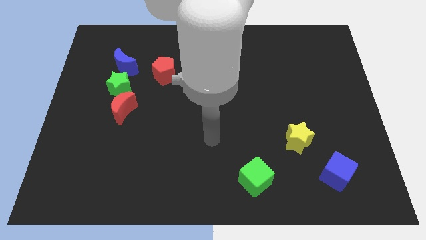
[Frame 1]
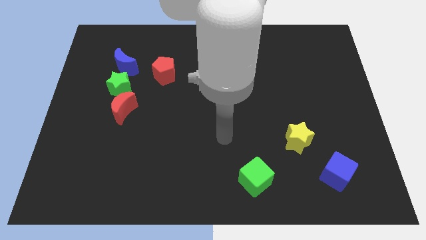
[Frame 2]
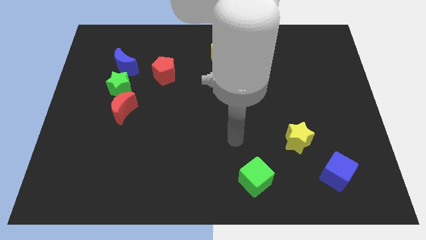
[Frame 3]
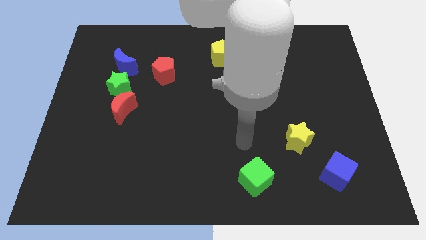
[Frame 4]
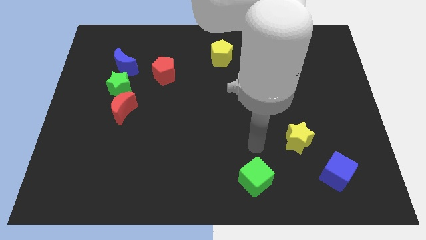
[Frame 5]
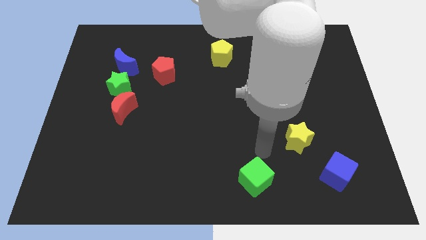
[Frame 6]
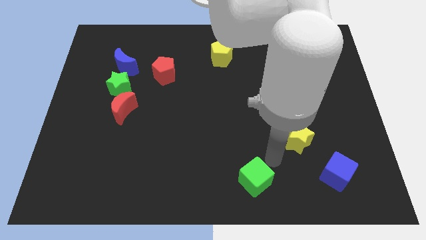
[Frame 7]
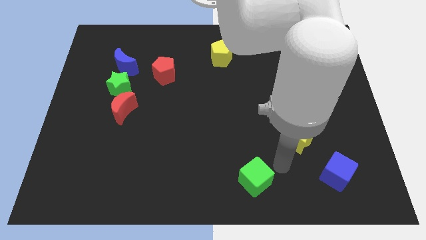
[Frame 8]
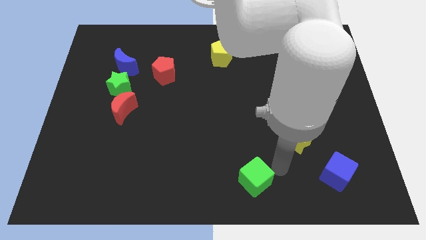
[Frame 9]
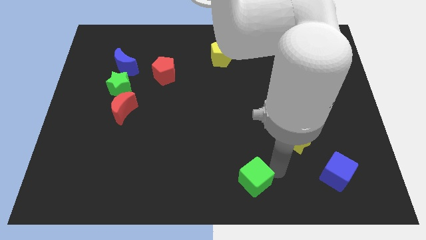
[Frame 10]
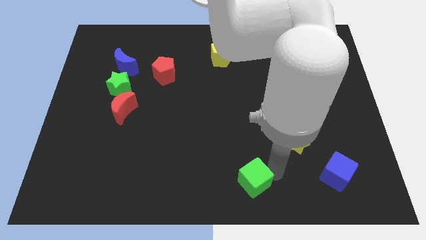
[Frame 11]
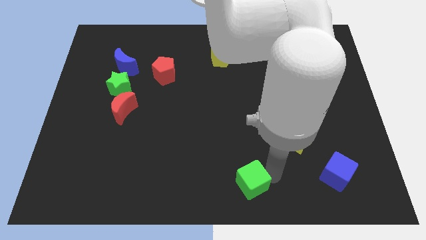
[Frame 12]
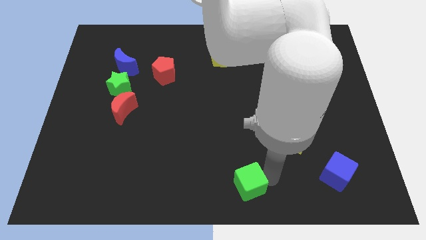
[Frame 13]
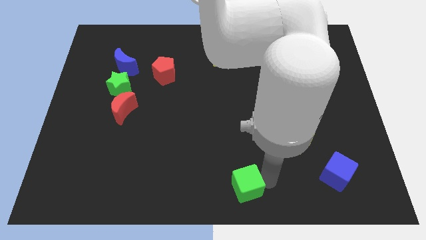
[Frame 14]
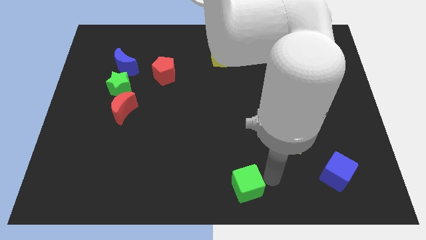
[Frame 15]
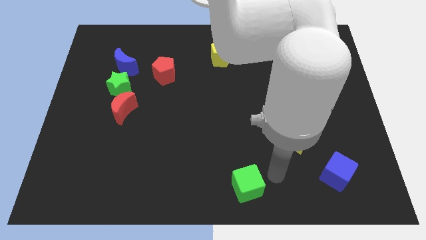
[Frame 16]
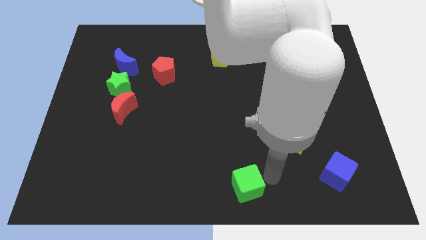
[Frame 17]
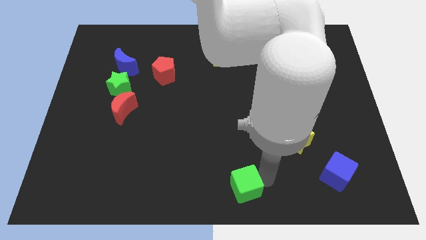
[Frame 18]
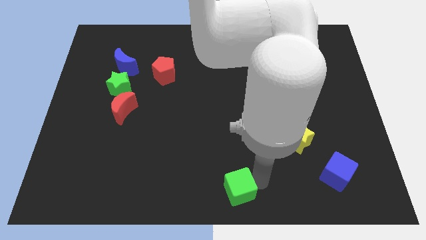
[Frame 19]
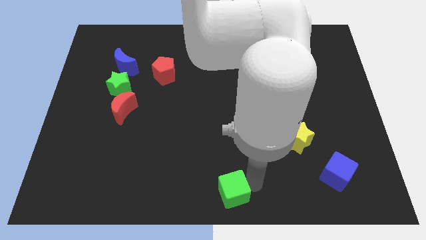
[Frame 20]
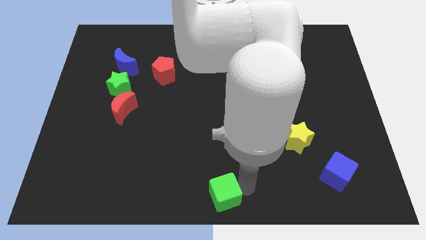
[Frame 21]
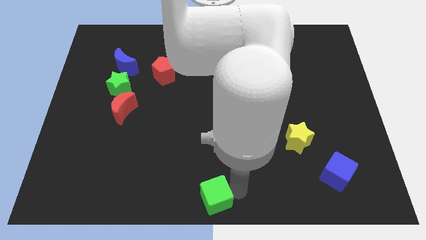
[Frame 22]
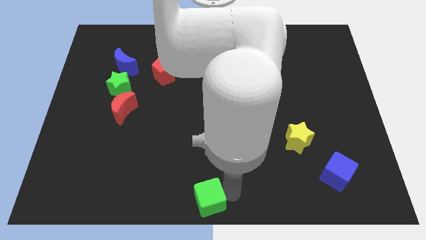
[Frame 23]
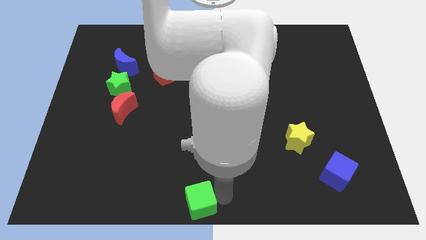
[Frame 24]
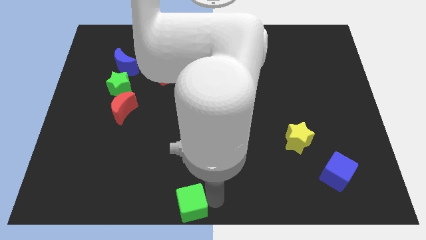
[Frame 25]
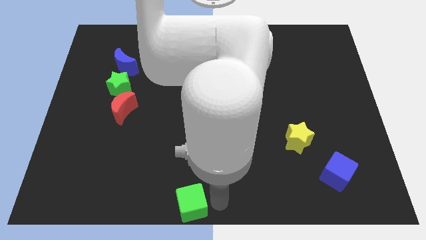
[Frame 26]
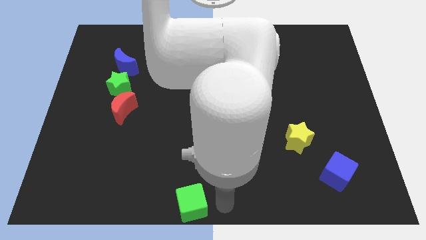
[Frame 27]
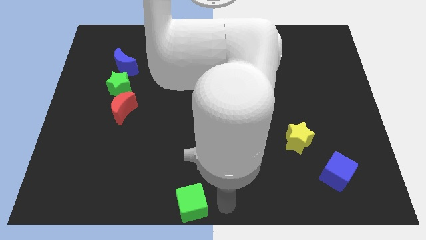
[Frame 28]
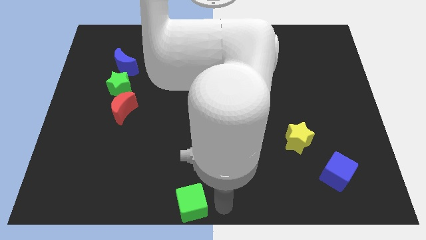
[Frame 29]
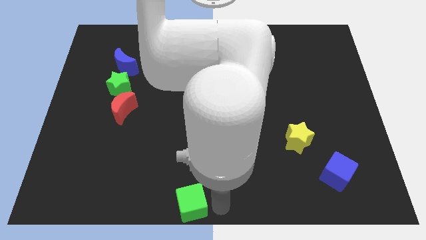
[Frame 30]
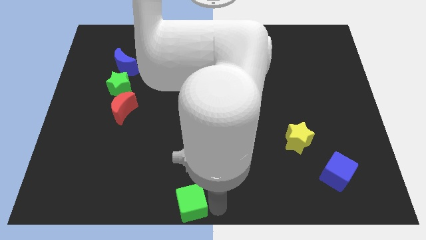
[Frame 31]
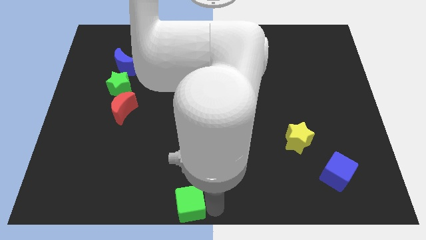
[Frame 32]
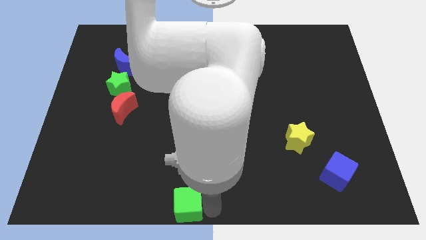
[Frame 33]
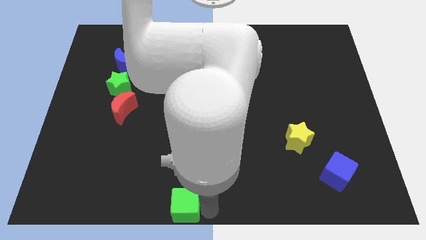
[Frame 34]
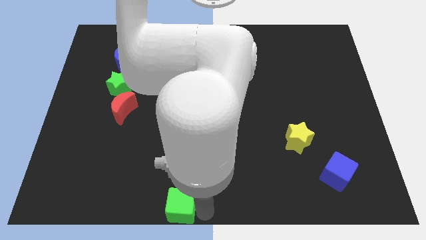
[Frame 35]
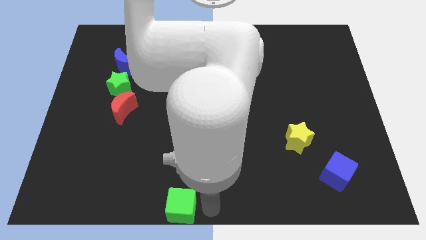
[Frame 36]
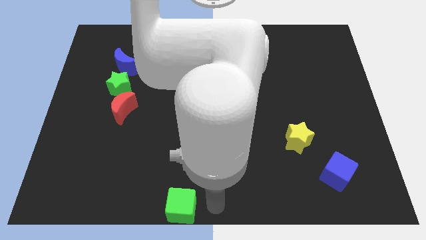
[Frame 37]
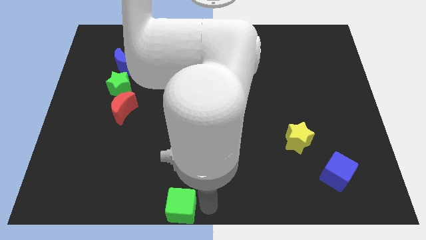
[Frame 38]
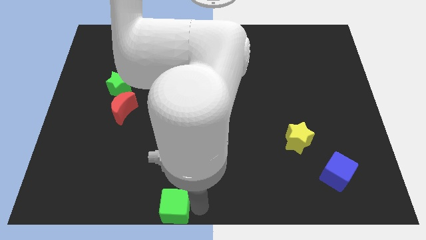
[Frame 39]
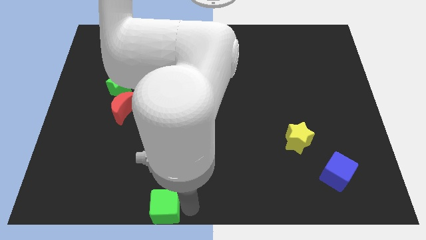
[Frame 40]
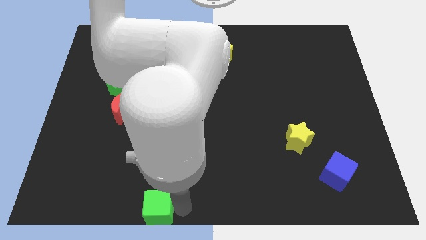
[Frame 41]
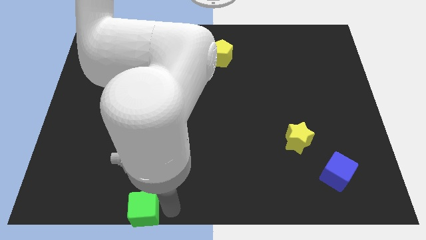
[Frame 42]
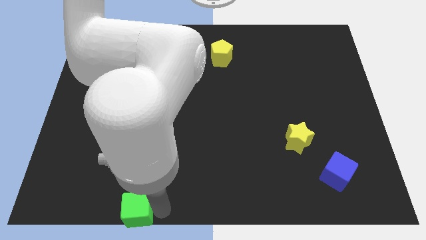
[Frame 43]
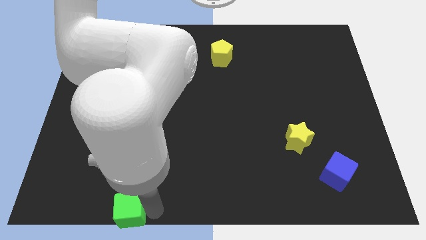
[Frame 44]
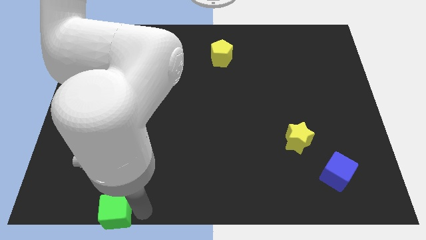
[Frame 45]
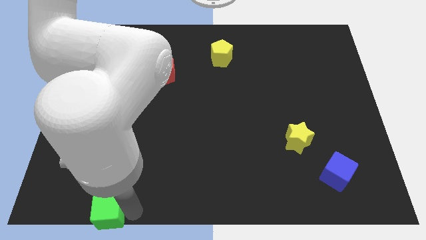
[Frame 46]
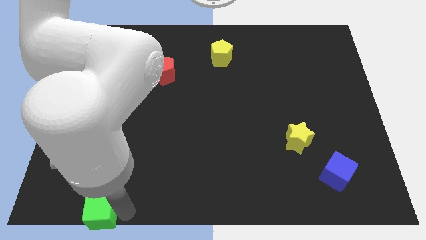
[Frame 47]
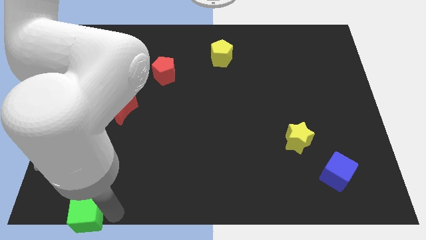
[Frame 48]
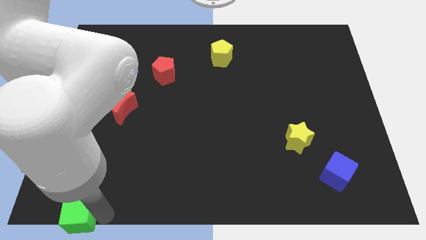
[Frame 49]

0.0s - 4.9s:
push the green cube to the bottom left corner

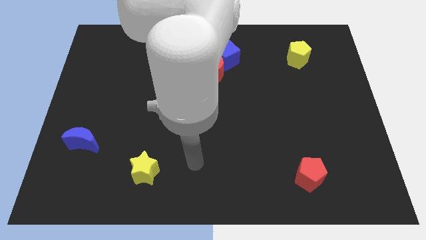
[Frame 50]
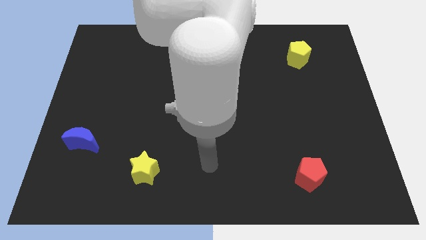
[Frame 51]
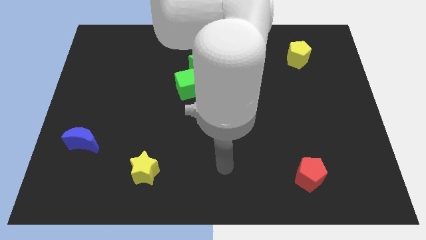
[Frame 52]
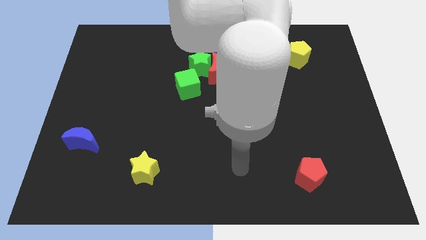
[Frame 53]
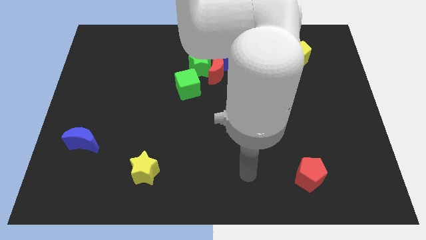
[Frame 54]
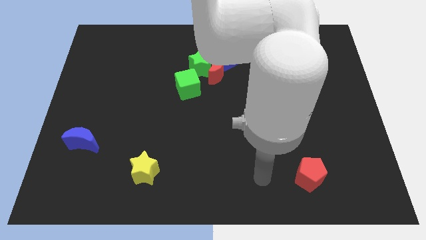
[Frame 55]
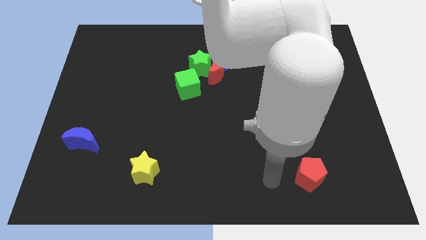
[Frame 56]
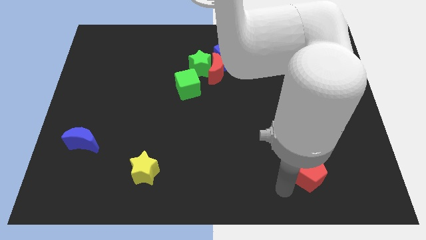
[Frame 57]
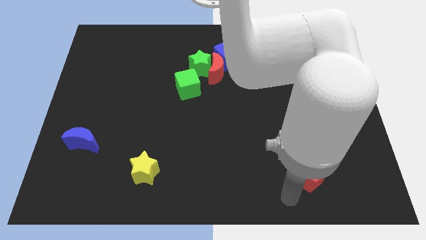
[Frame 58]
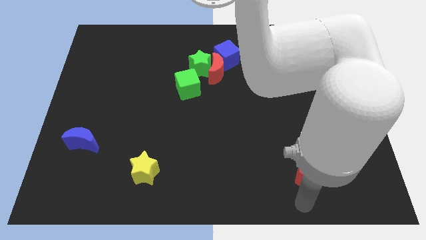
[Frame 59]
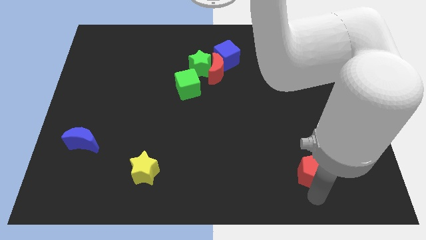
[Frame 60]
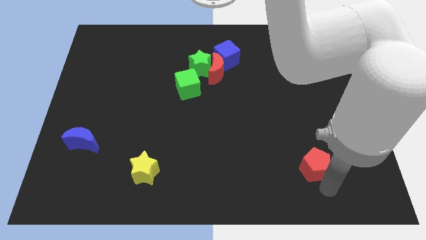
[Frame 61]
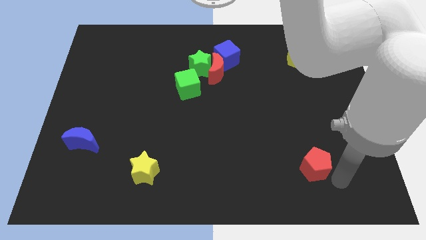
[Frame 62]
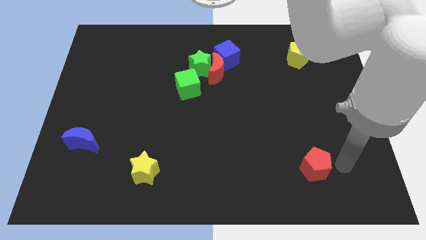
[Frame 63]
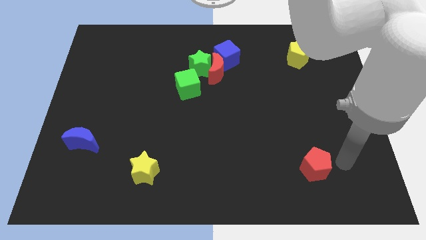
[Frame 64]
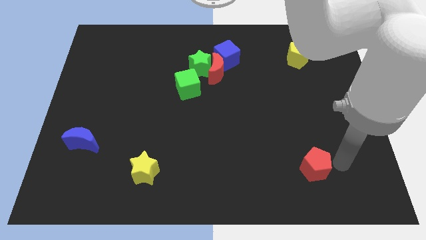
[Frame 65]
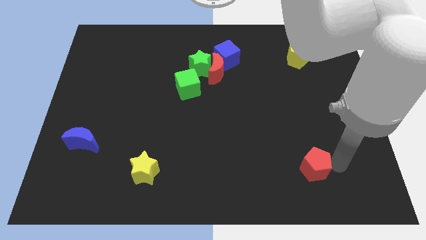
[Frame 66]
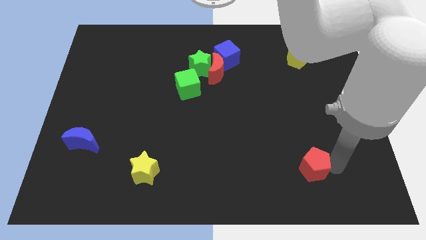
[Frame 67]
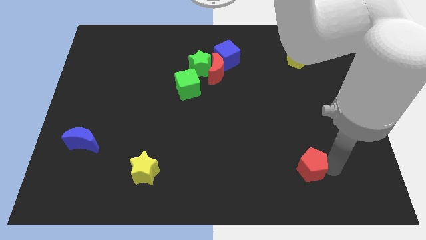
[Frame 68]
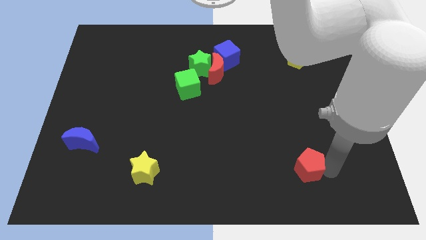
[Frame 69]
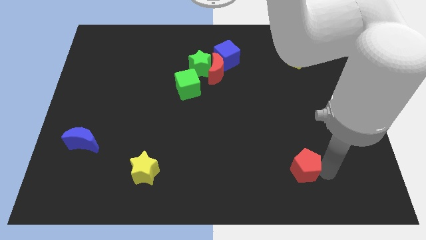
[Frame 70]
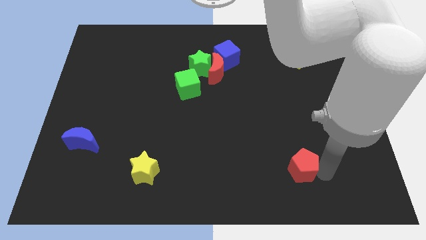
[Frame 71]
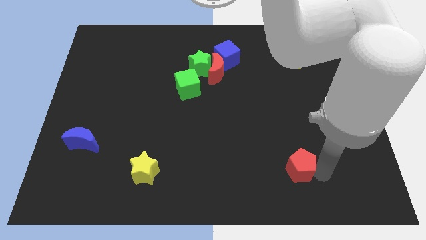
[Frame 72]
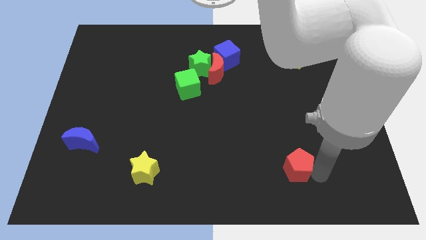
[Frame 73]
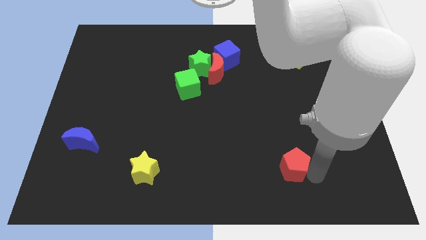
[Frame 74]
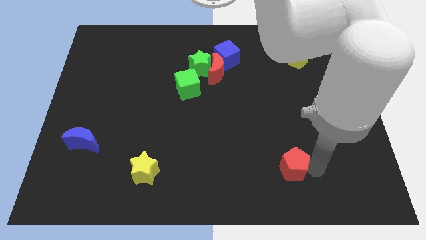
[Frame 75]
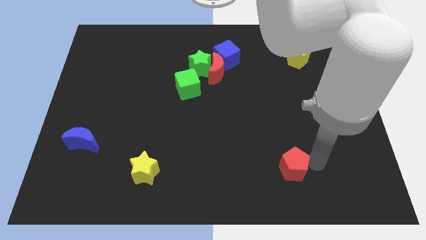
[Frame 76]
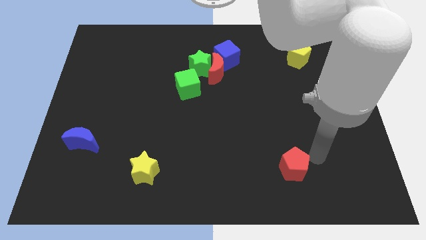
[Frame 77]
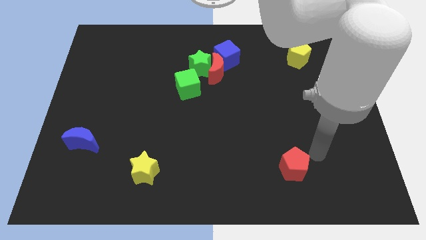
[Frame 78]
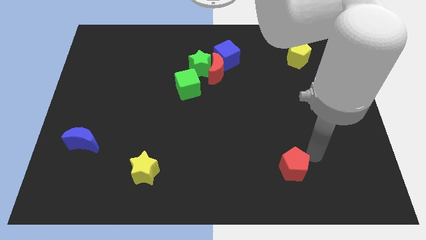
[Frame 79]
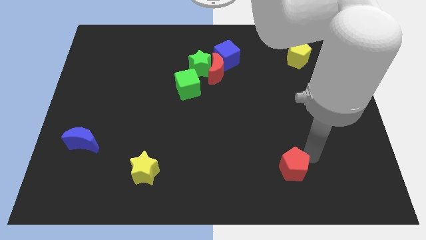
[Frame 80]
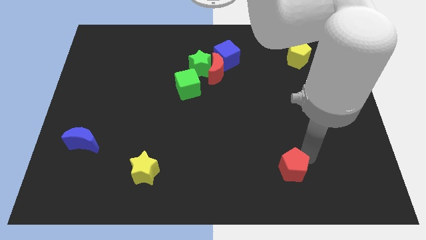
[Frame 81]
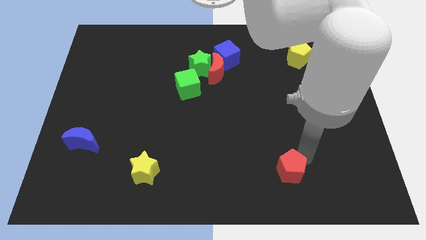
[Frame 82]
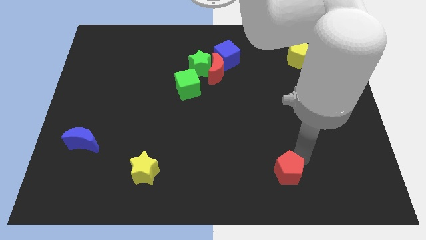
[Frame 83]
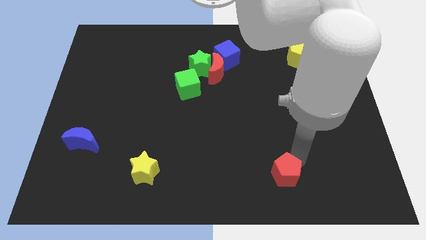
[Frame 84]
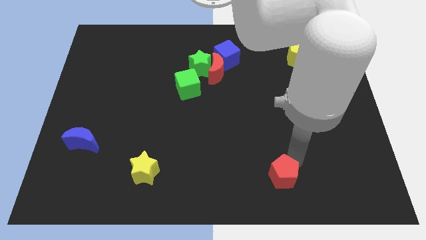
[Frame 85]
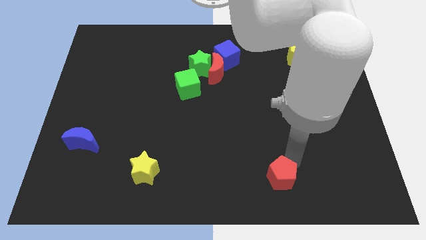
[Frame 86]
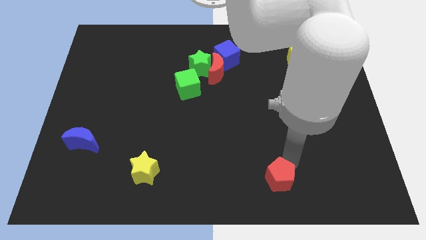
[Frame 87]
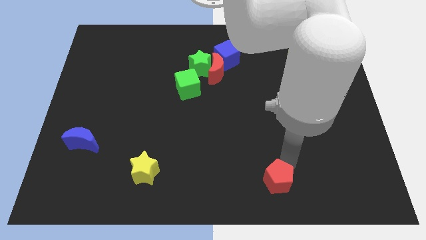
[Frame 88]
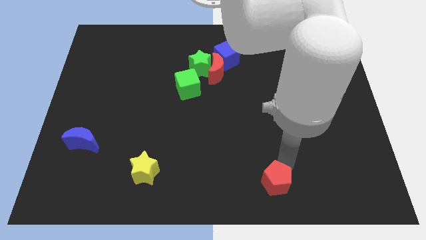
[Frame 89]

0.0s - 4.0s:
slide the red pentagon to the bottom
